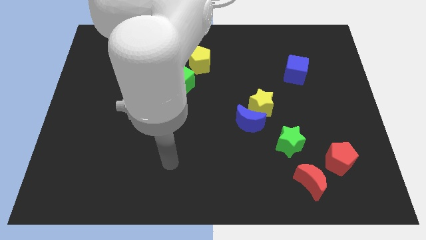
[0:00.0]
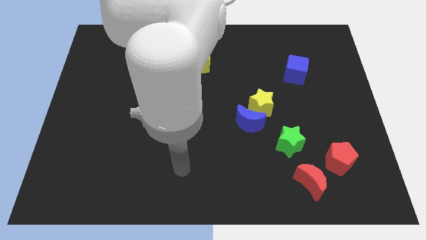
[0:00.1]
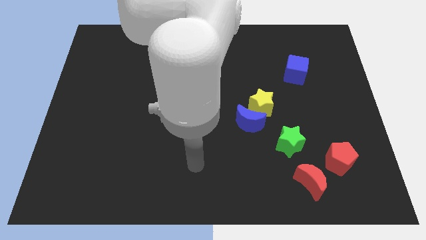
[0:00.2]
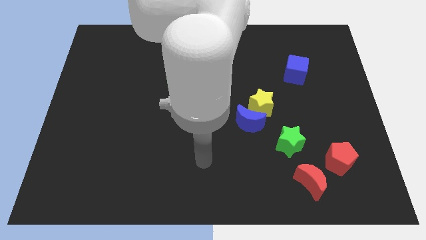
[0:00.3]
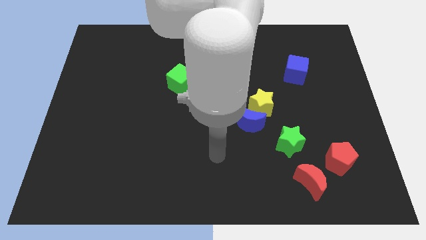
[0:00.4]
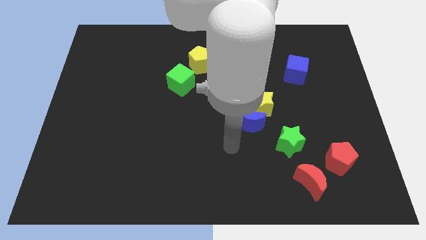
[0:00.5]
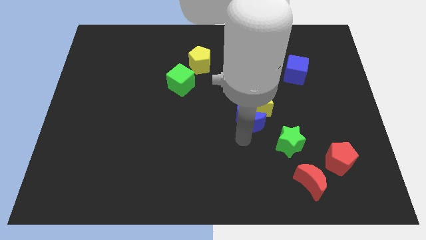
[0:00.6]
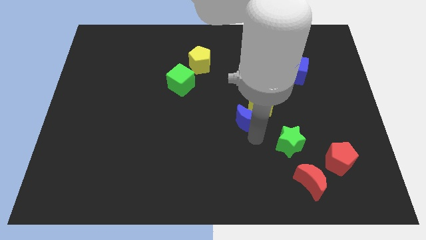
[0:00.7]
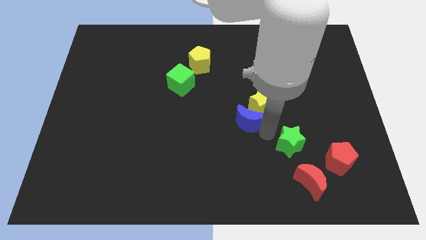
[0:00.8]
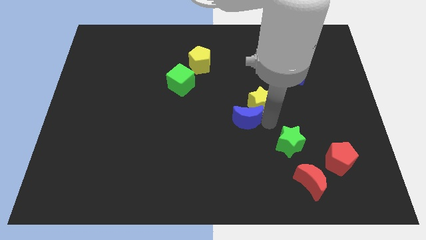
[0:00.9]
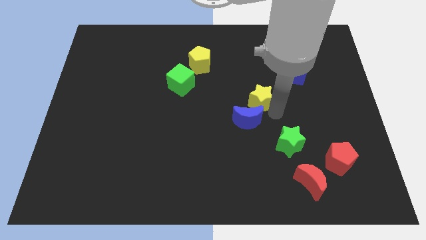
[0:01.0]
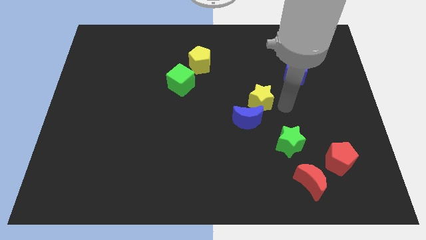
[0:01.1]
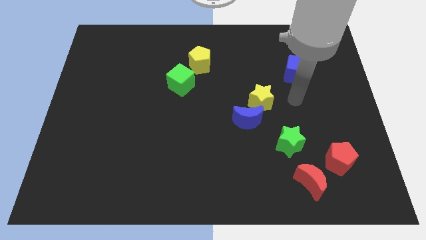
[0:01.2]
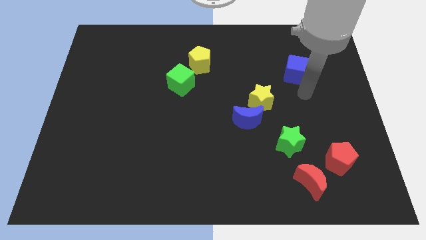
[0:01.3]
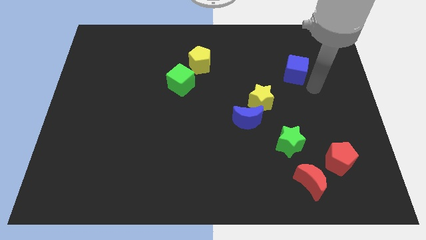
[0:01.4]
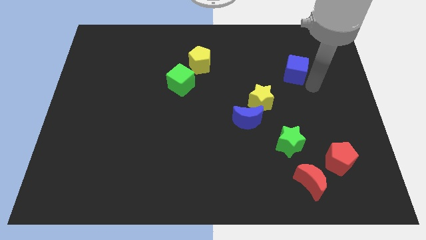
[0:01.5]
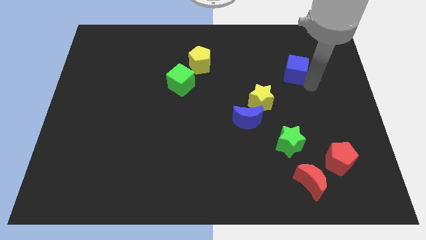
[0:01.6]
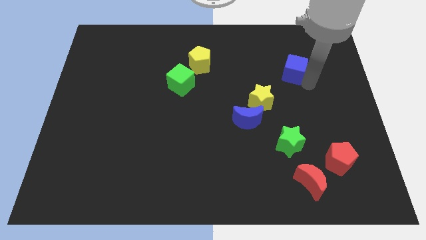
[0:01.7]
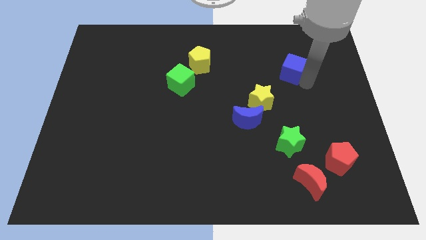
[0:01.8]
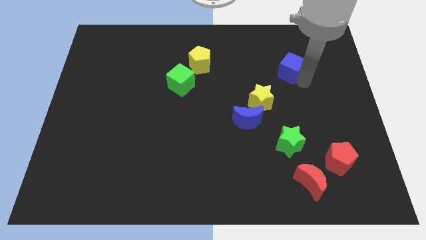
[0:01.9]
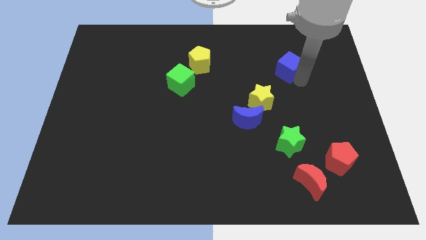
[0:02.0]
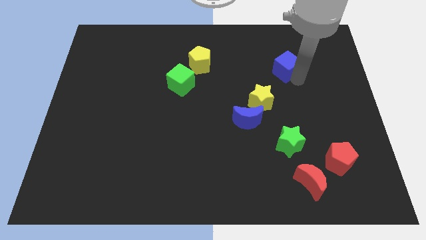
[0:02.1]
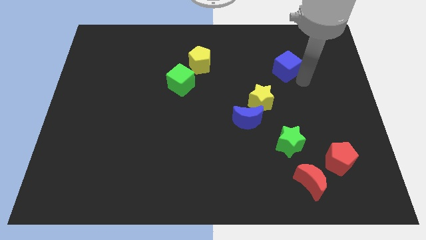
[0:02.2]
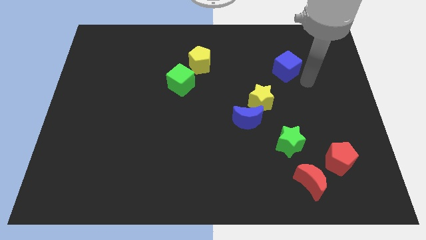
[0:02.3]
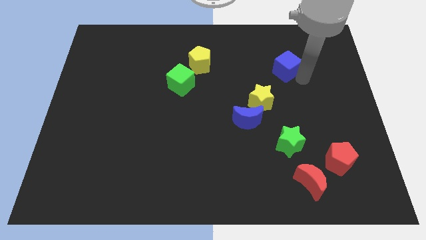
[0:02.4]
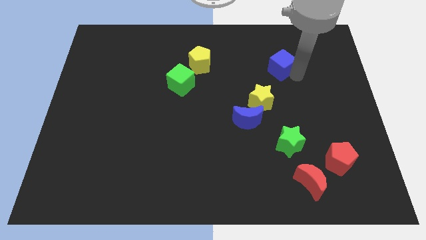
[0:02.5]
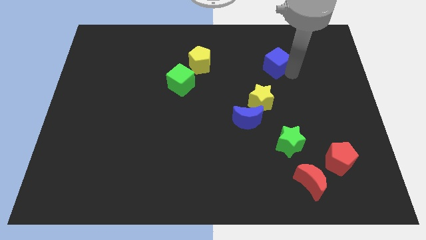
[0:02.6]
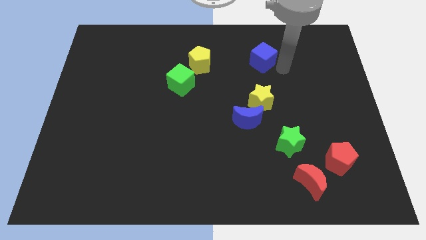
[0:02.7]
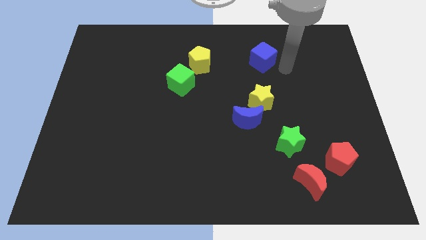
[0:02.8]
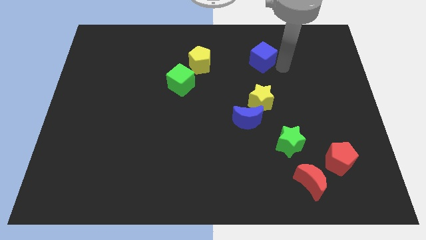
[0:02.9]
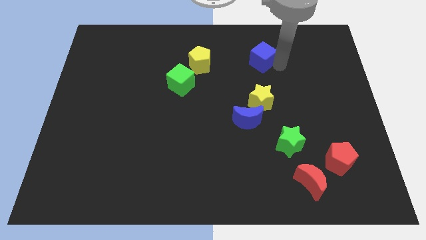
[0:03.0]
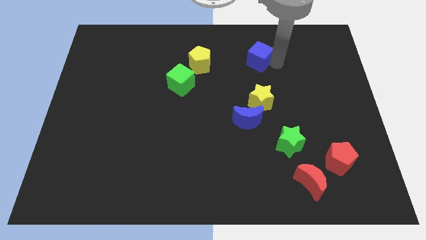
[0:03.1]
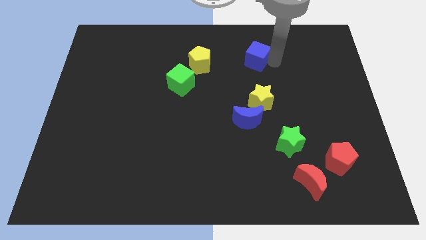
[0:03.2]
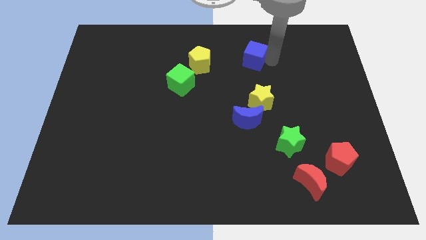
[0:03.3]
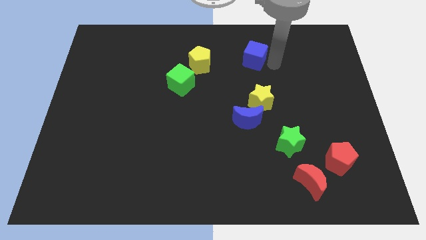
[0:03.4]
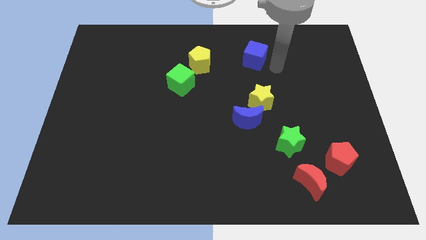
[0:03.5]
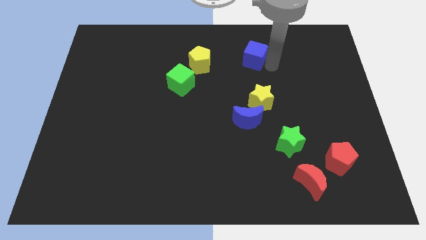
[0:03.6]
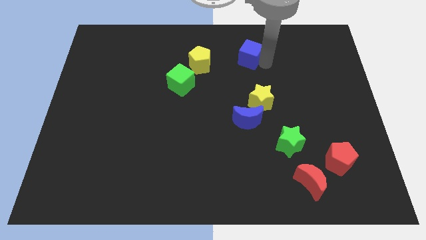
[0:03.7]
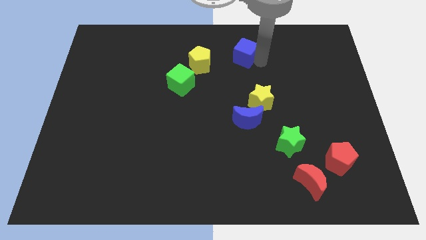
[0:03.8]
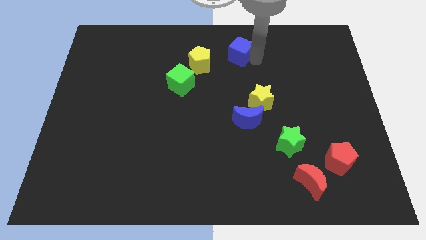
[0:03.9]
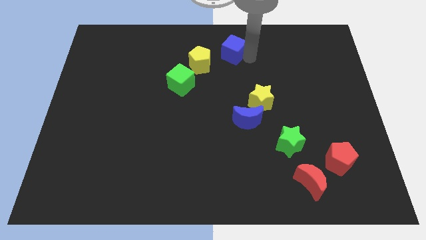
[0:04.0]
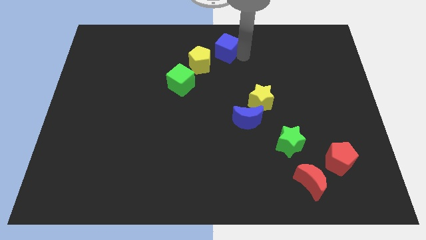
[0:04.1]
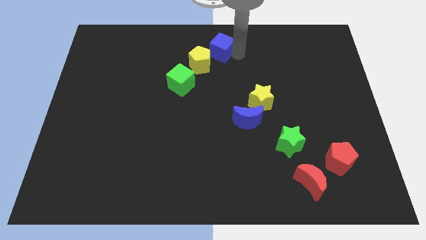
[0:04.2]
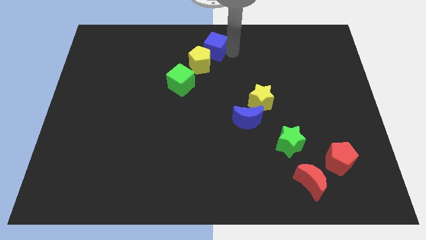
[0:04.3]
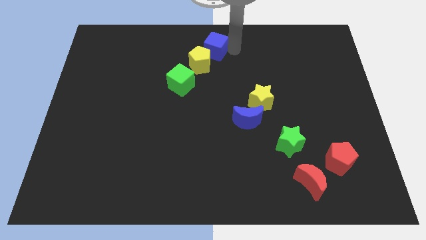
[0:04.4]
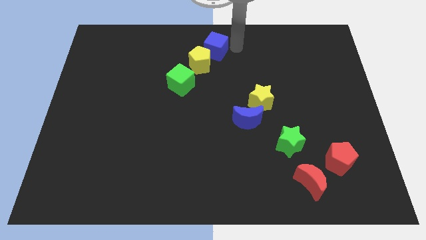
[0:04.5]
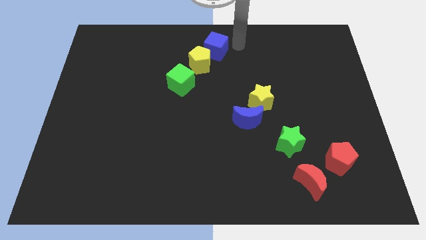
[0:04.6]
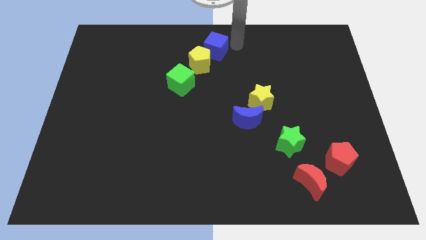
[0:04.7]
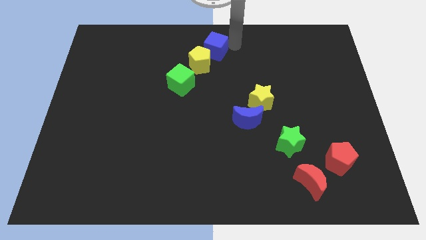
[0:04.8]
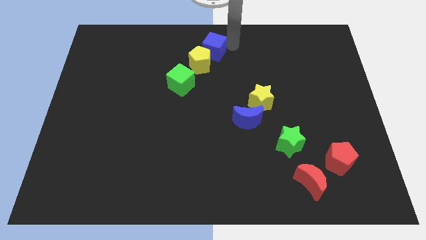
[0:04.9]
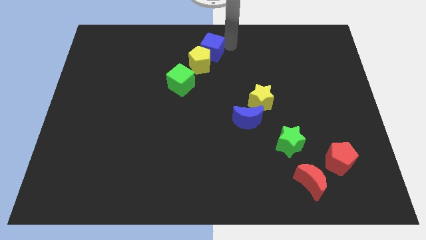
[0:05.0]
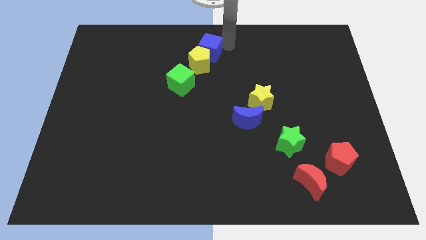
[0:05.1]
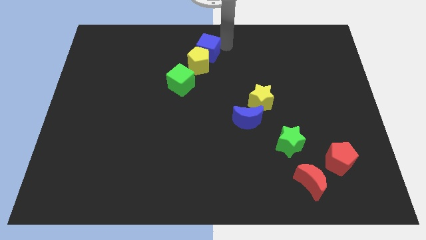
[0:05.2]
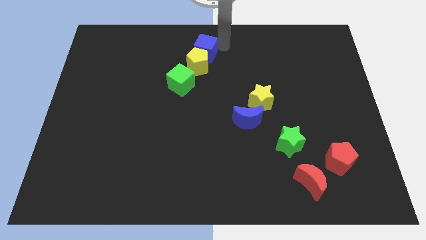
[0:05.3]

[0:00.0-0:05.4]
slide the blue cube to the left

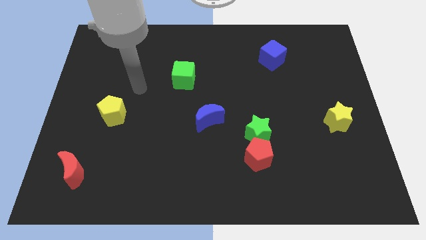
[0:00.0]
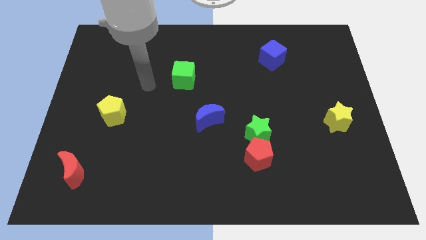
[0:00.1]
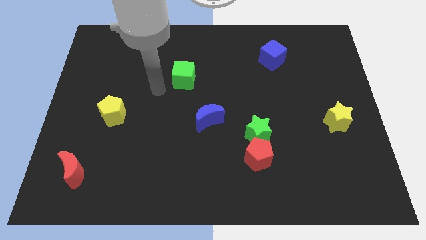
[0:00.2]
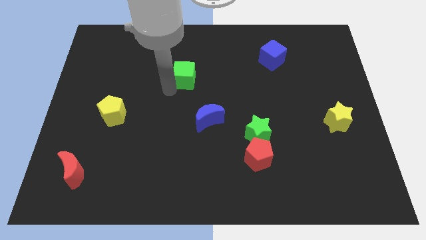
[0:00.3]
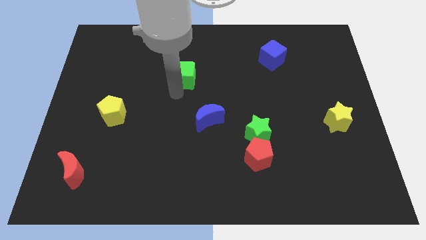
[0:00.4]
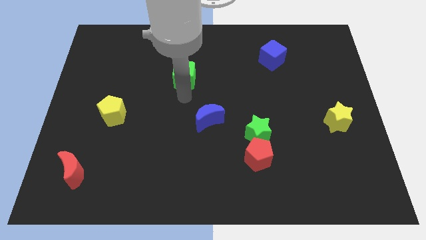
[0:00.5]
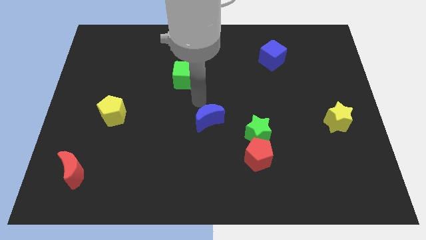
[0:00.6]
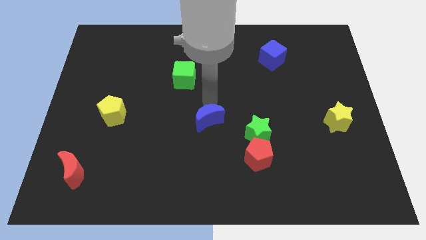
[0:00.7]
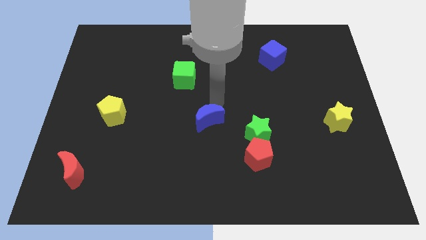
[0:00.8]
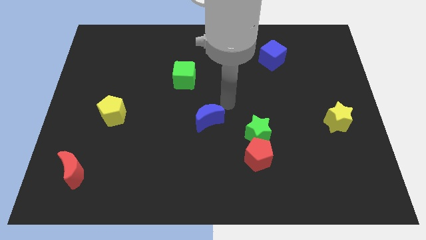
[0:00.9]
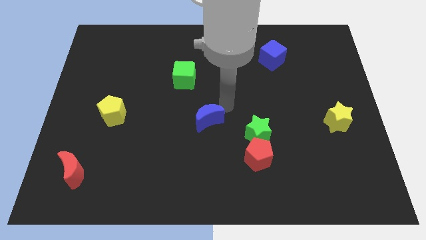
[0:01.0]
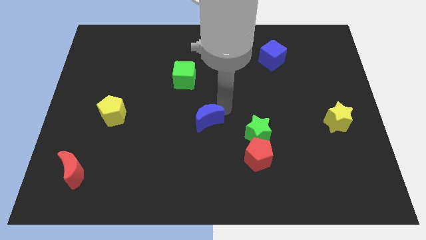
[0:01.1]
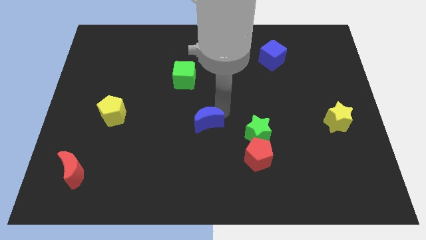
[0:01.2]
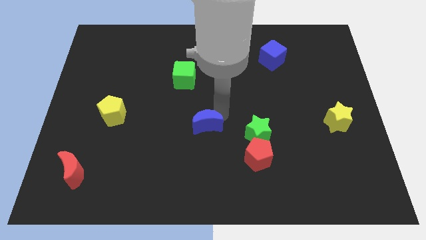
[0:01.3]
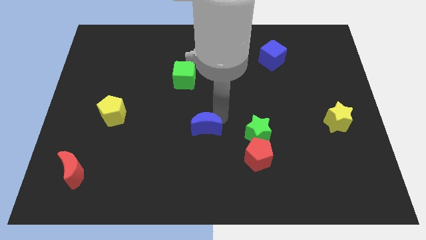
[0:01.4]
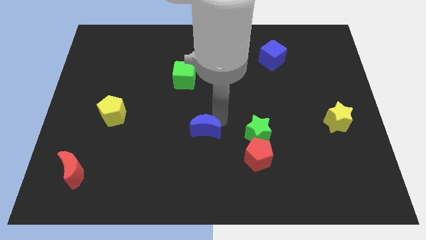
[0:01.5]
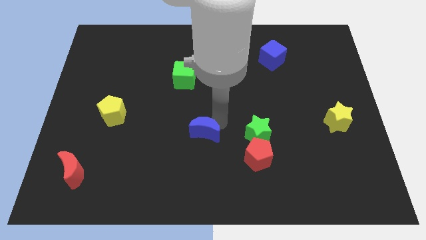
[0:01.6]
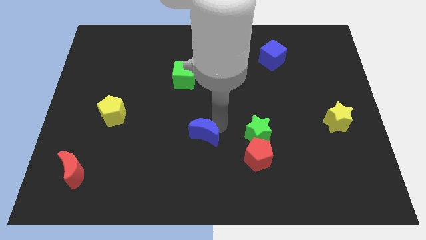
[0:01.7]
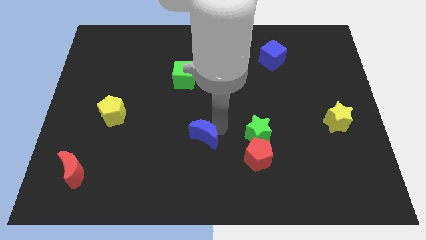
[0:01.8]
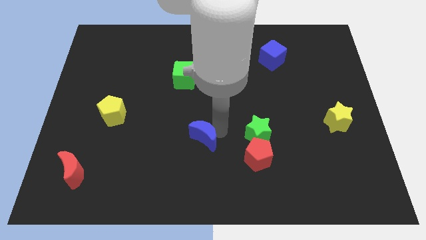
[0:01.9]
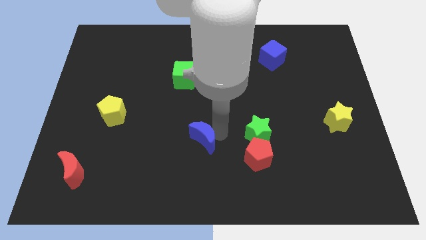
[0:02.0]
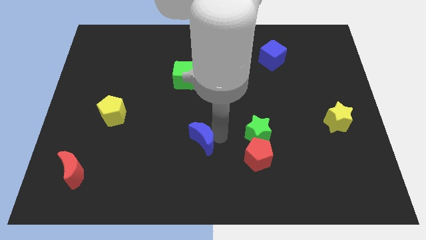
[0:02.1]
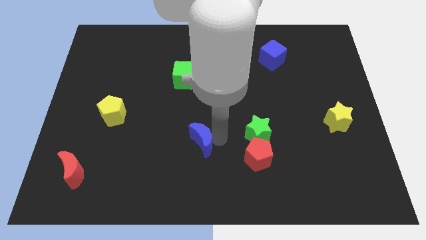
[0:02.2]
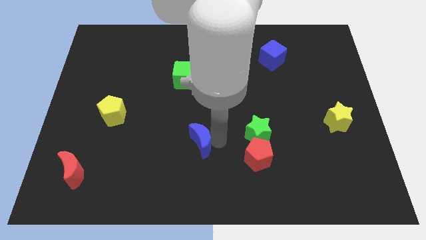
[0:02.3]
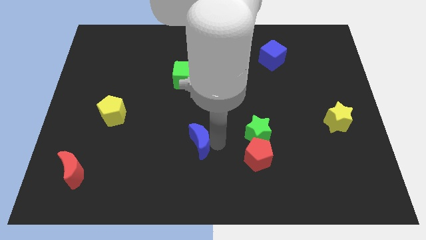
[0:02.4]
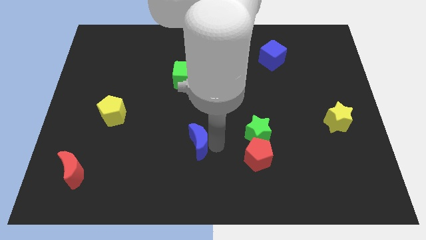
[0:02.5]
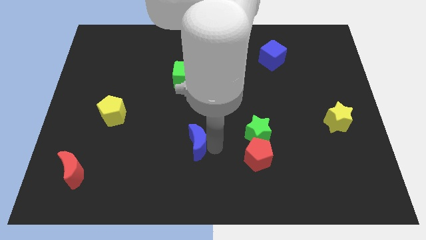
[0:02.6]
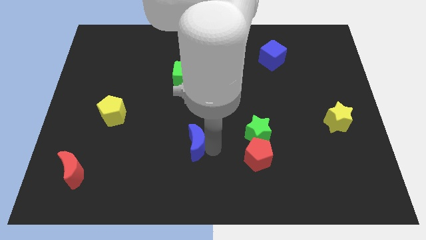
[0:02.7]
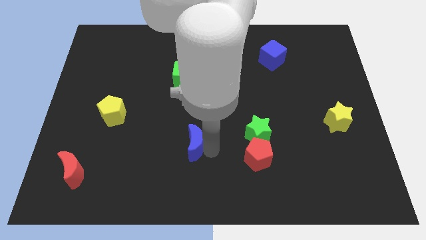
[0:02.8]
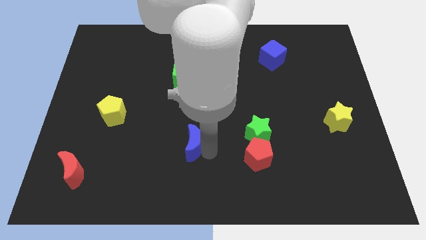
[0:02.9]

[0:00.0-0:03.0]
slightly move the blue moon down and left
